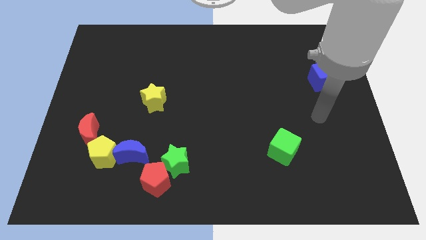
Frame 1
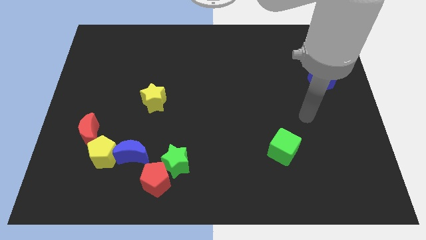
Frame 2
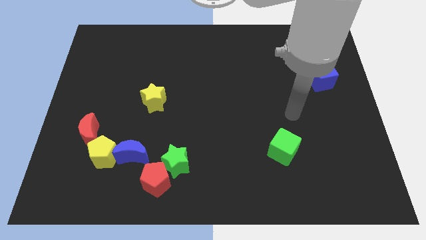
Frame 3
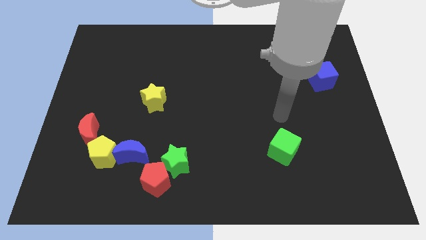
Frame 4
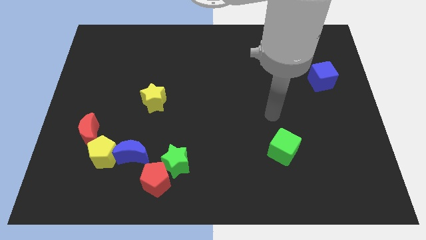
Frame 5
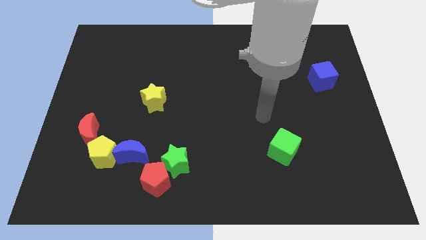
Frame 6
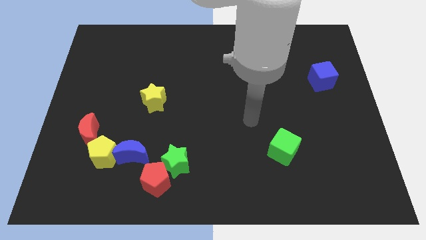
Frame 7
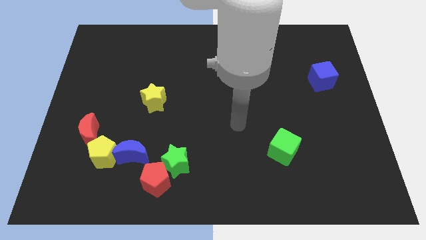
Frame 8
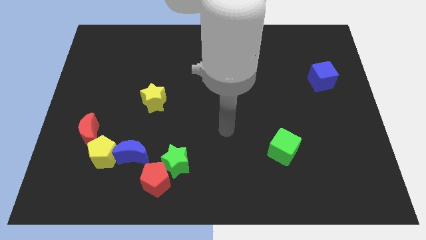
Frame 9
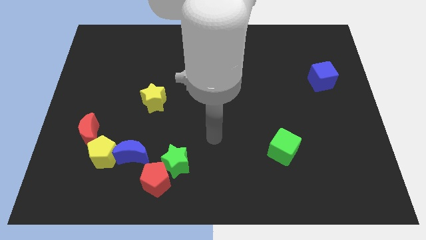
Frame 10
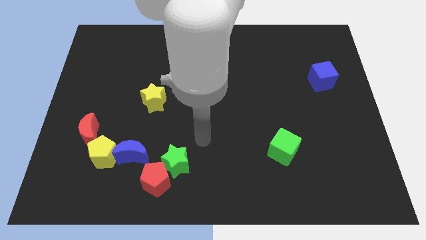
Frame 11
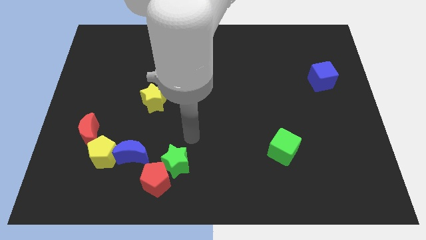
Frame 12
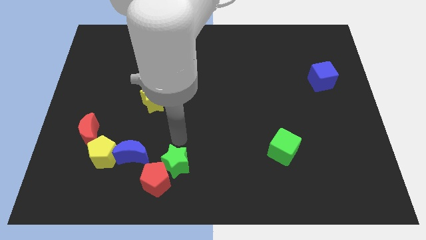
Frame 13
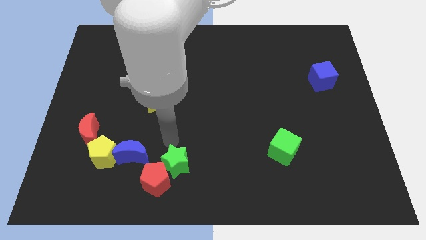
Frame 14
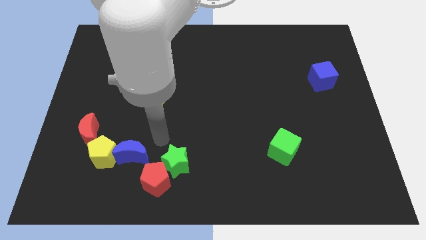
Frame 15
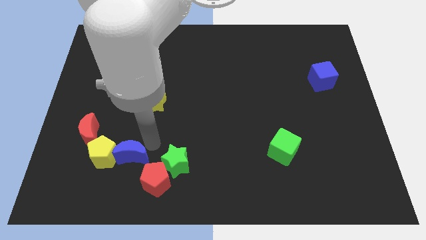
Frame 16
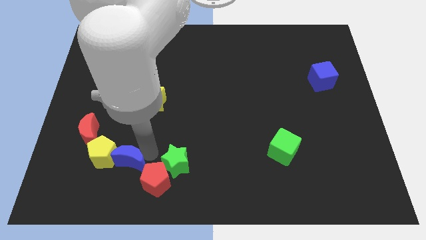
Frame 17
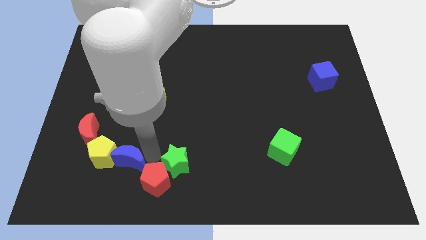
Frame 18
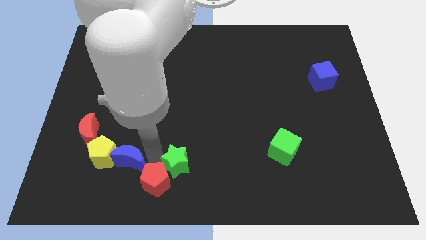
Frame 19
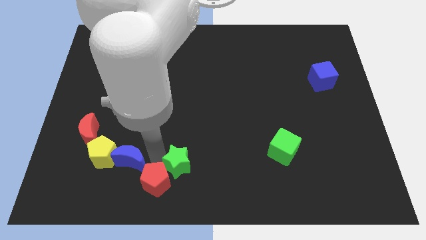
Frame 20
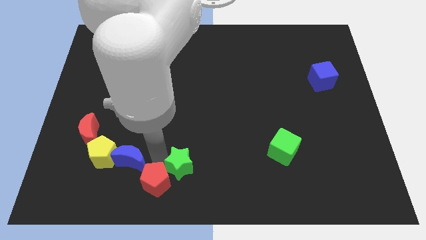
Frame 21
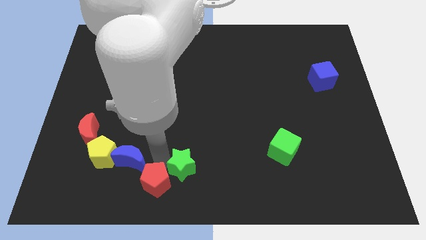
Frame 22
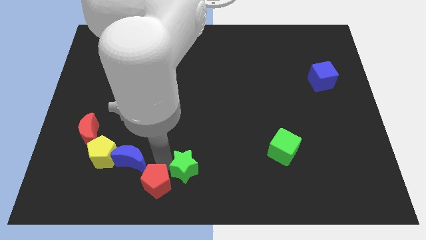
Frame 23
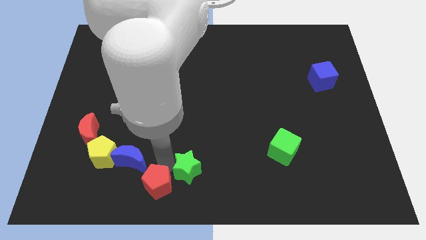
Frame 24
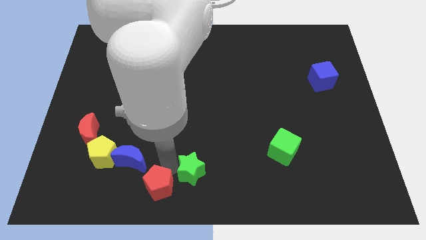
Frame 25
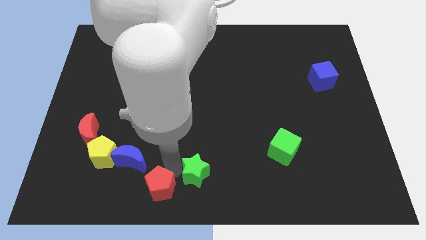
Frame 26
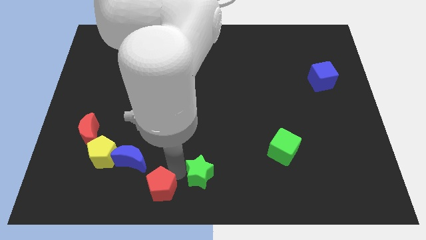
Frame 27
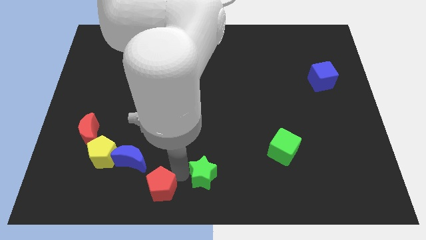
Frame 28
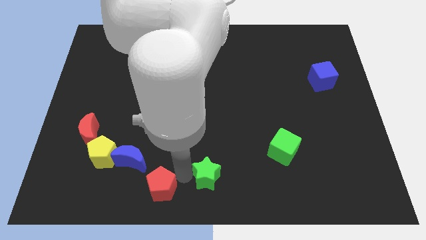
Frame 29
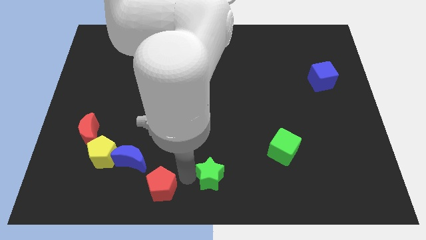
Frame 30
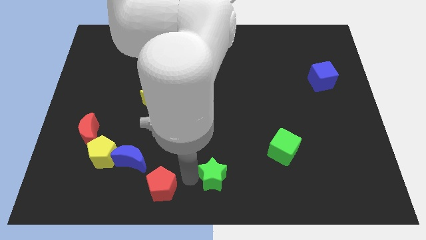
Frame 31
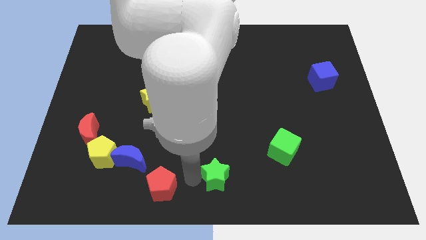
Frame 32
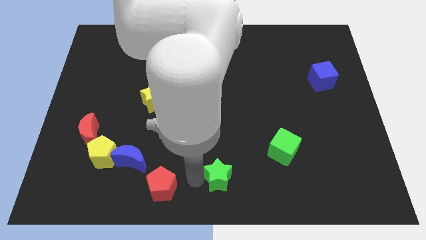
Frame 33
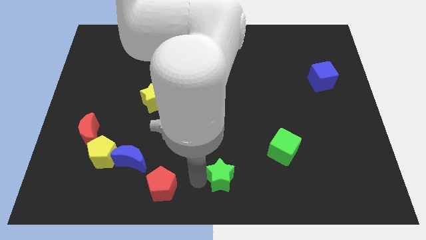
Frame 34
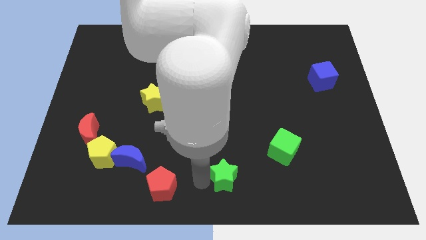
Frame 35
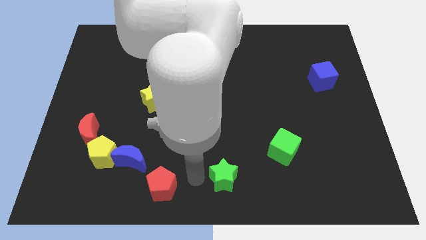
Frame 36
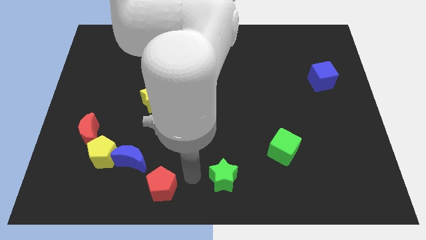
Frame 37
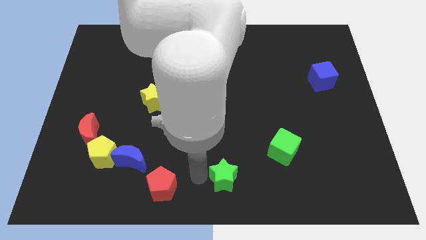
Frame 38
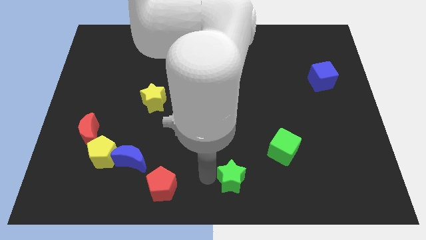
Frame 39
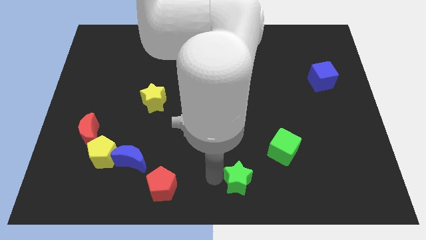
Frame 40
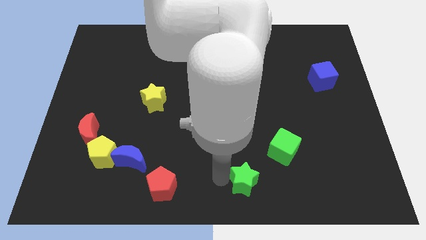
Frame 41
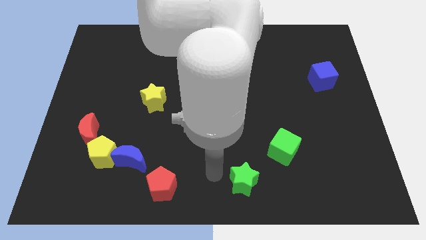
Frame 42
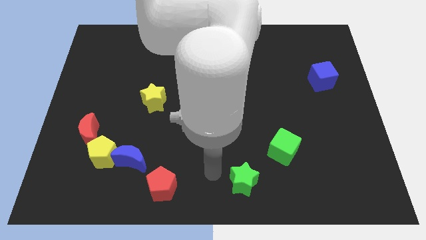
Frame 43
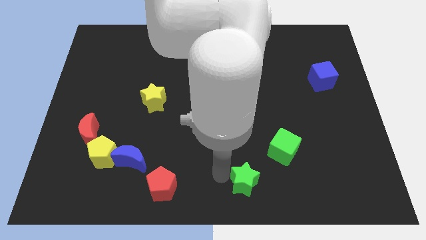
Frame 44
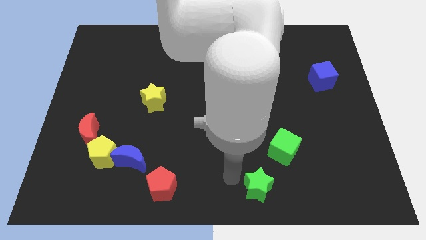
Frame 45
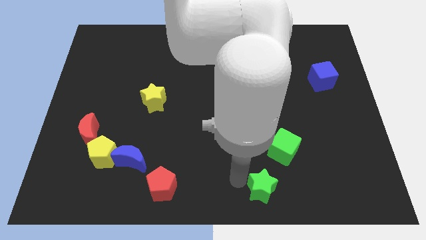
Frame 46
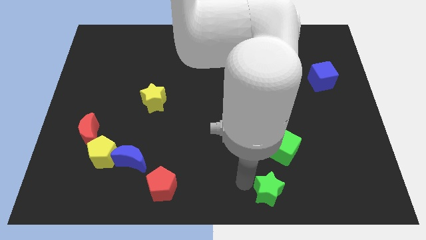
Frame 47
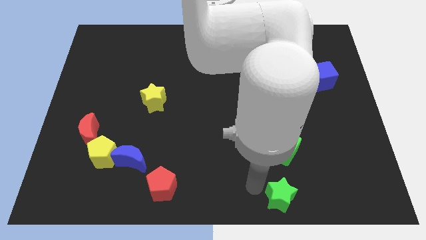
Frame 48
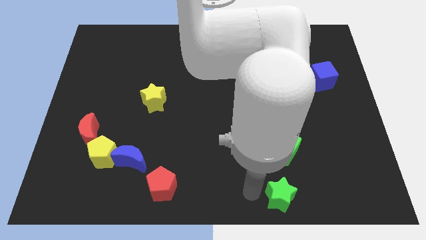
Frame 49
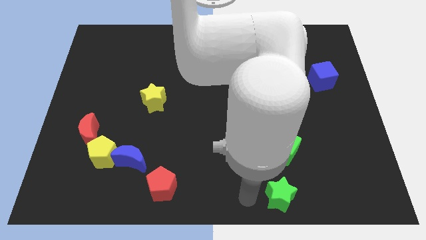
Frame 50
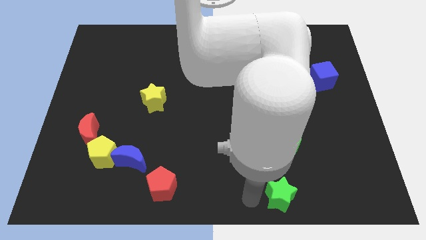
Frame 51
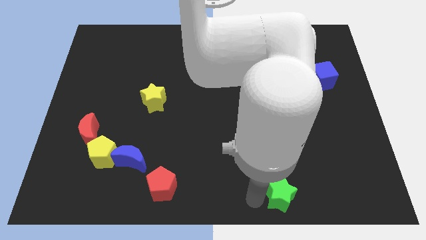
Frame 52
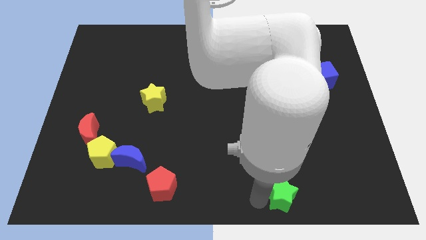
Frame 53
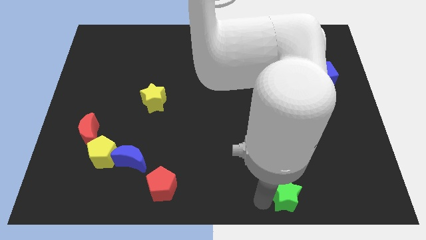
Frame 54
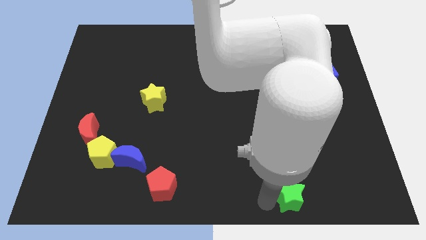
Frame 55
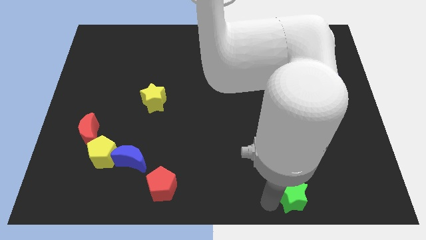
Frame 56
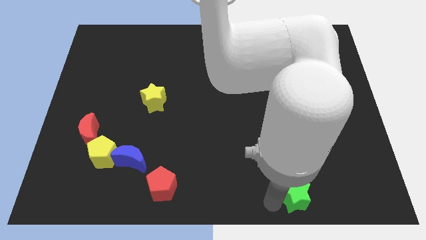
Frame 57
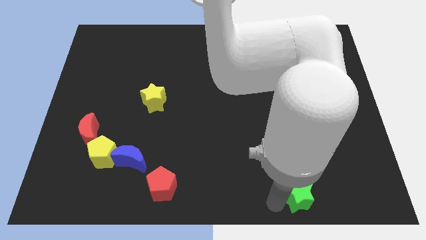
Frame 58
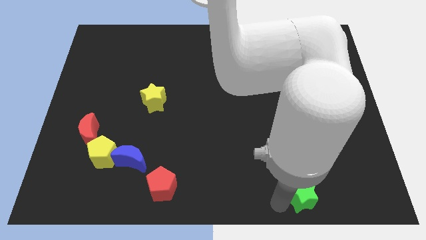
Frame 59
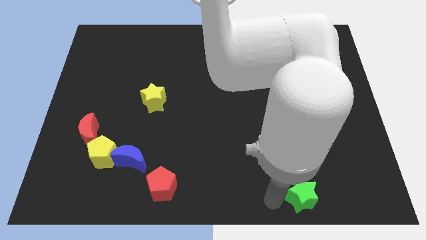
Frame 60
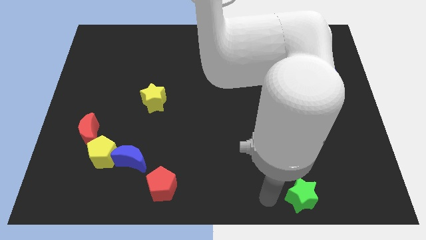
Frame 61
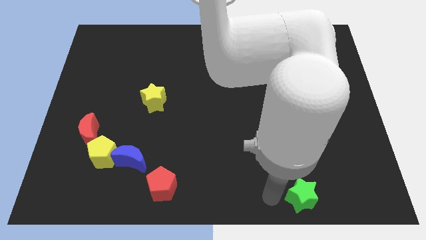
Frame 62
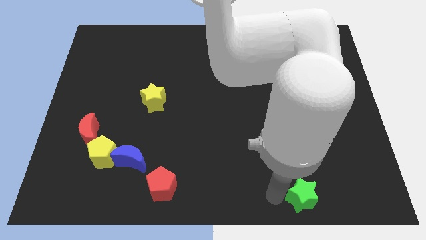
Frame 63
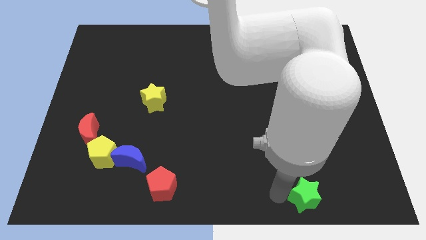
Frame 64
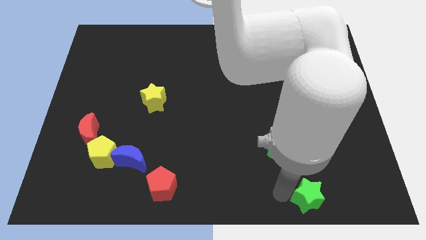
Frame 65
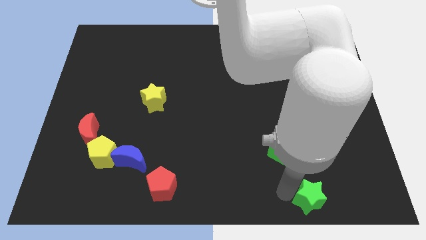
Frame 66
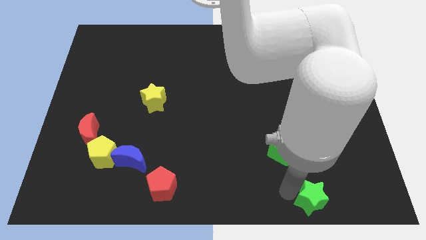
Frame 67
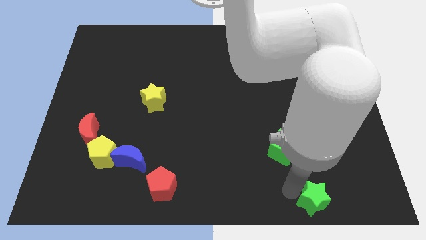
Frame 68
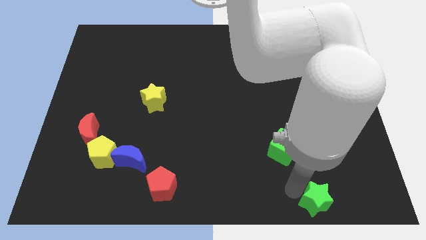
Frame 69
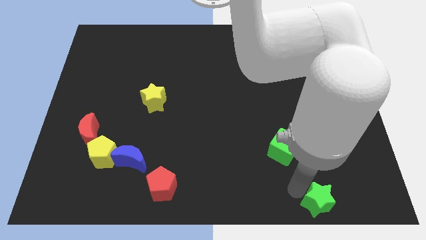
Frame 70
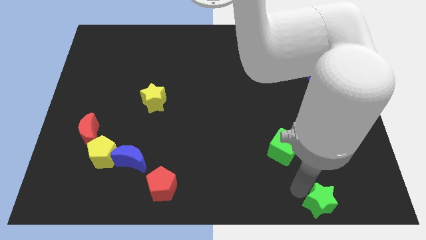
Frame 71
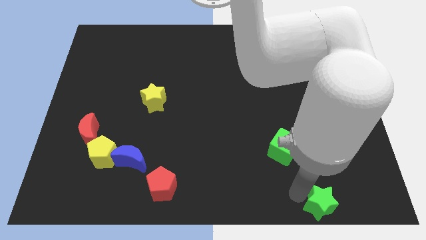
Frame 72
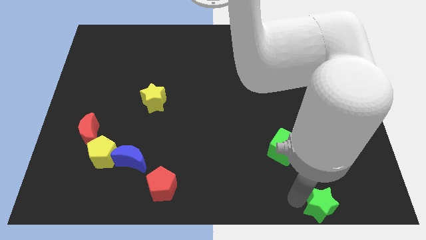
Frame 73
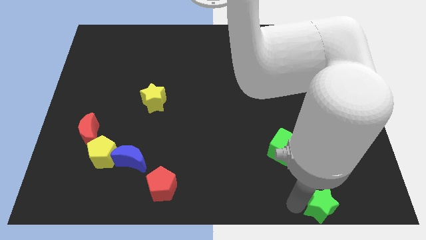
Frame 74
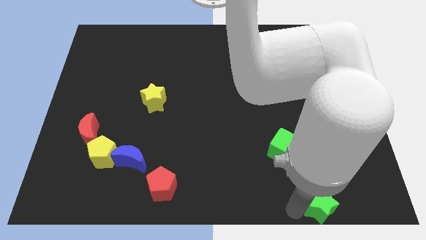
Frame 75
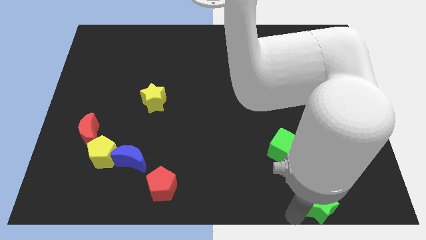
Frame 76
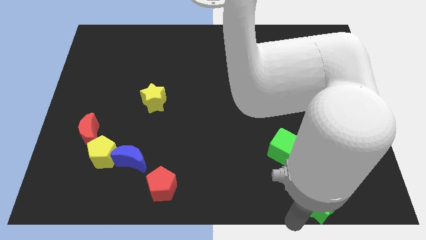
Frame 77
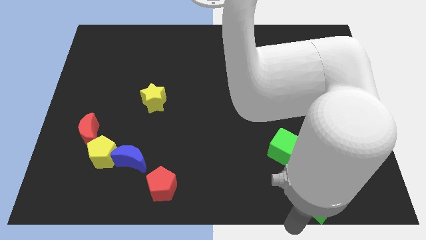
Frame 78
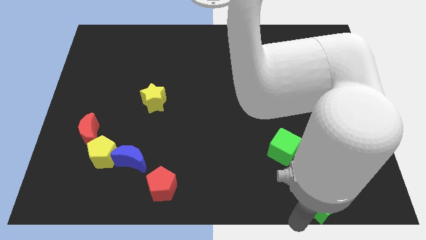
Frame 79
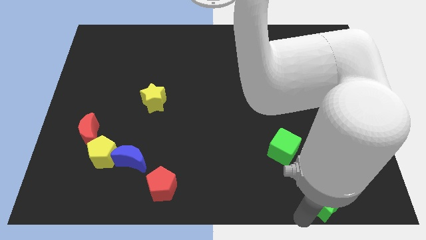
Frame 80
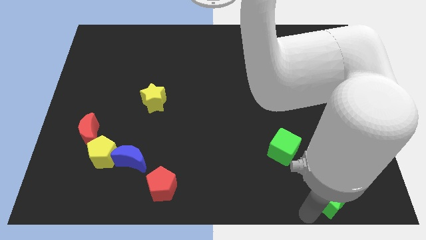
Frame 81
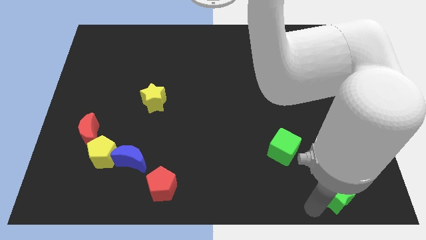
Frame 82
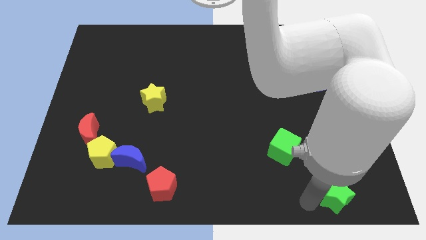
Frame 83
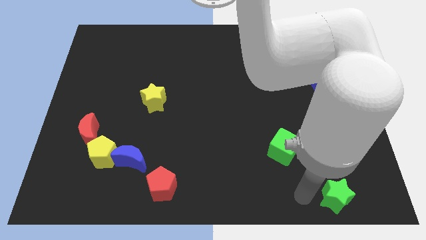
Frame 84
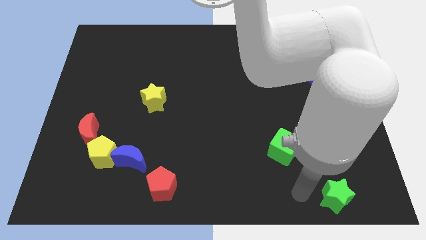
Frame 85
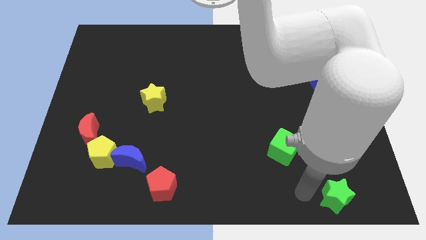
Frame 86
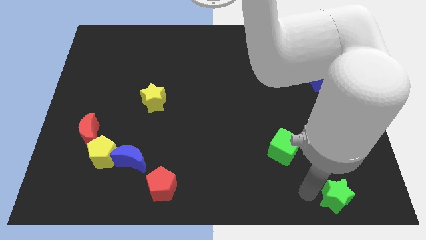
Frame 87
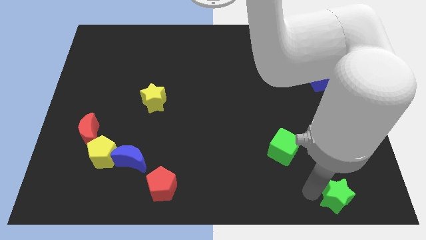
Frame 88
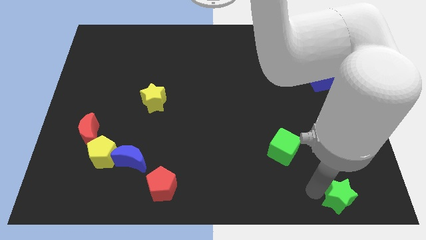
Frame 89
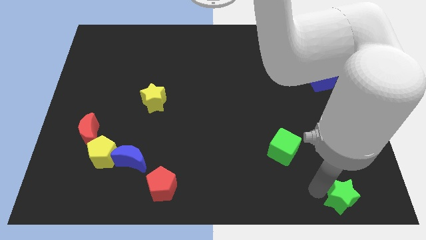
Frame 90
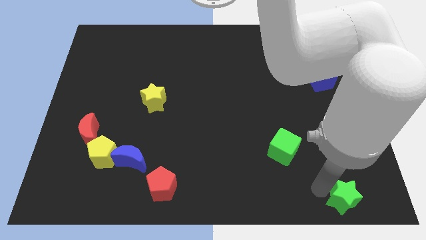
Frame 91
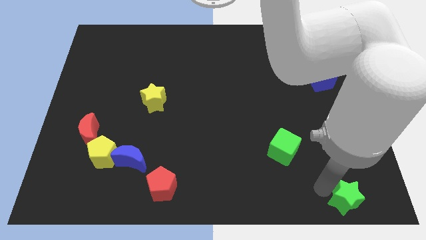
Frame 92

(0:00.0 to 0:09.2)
push the green star to the bottom right of the board
